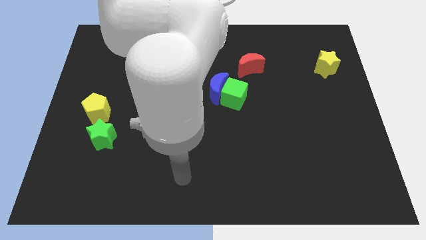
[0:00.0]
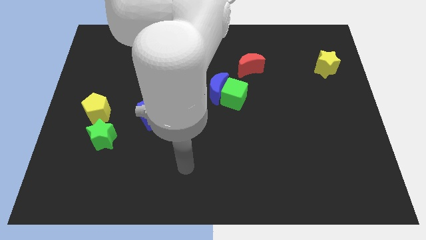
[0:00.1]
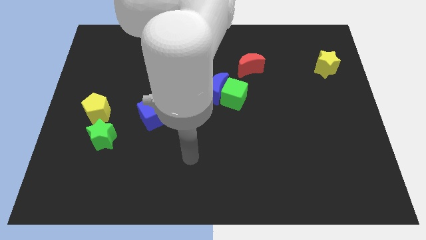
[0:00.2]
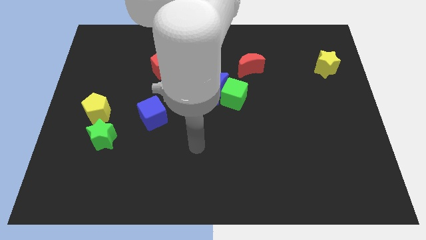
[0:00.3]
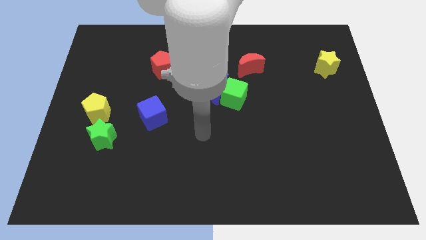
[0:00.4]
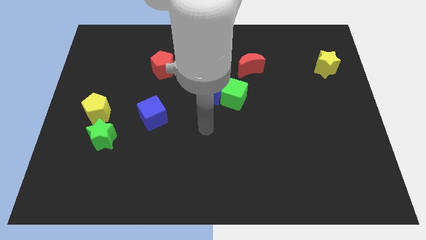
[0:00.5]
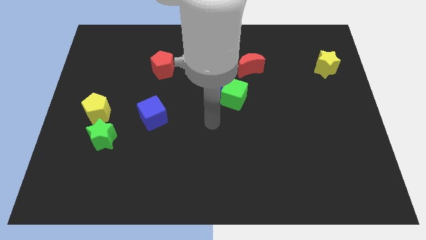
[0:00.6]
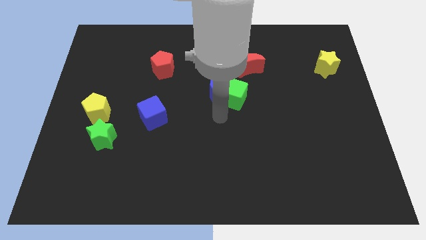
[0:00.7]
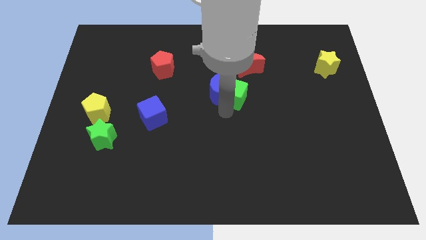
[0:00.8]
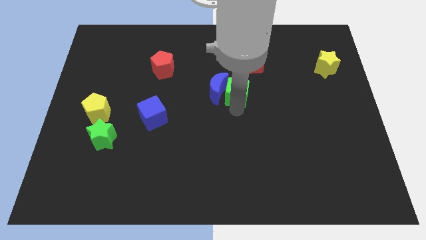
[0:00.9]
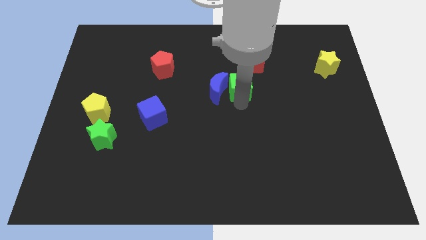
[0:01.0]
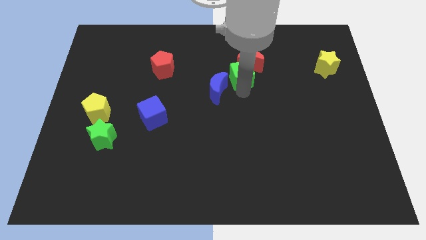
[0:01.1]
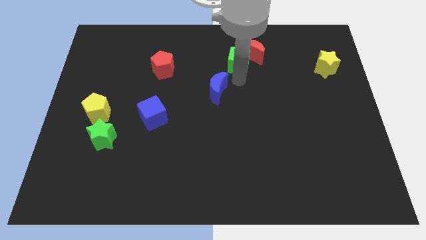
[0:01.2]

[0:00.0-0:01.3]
pull the blue moon apart from the green cube

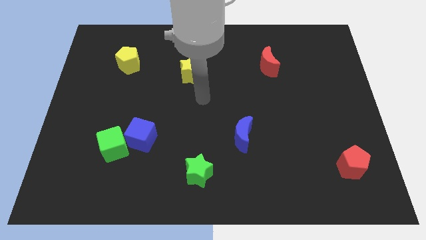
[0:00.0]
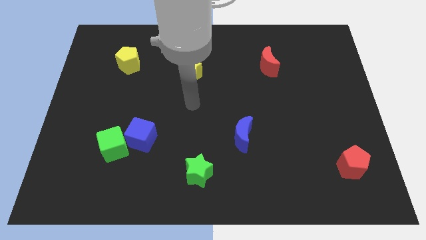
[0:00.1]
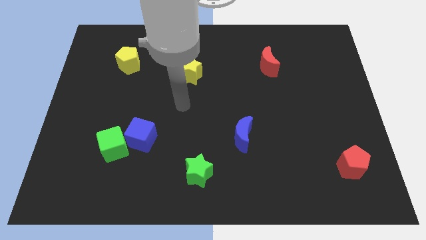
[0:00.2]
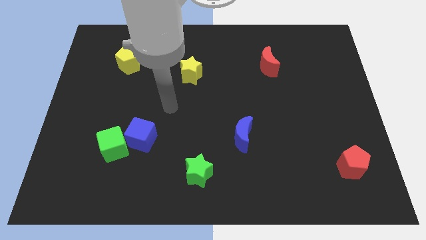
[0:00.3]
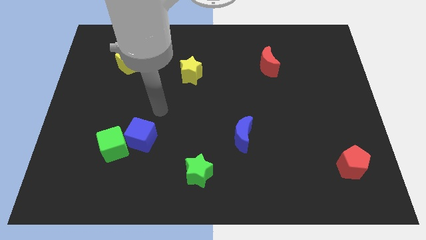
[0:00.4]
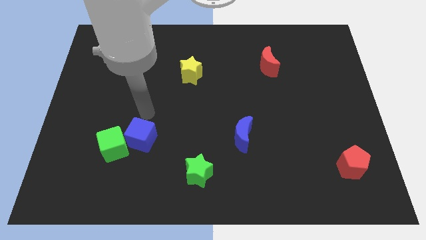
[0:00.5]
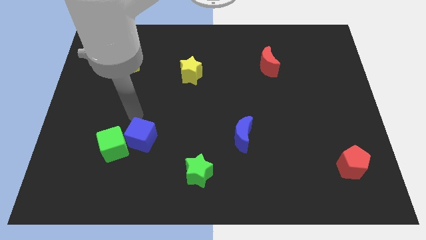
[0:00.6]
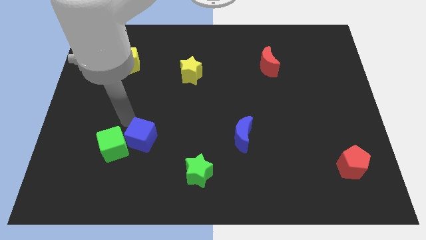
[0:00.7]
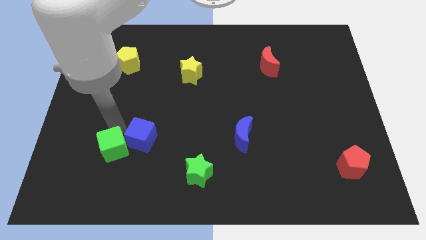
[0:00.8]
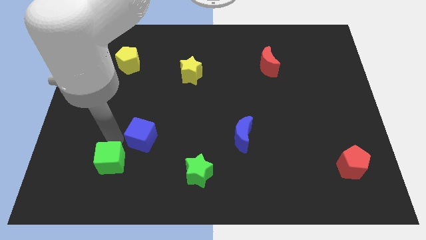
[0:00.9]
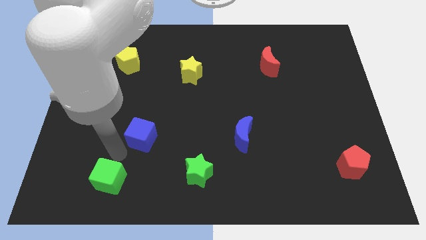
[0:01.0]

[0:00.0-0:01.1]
separate the blue cube from the green cube

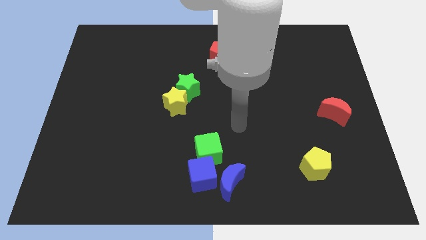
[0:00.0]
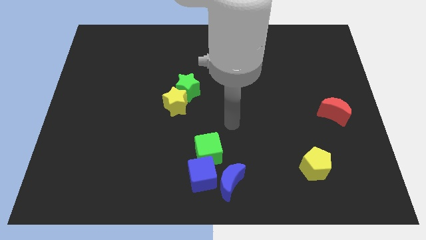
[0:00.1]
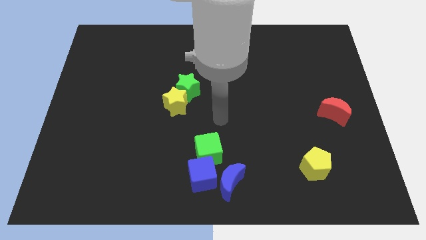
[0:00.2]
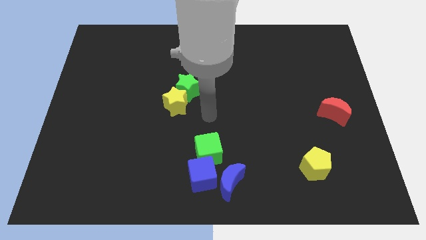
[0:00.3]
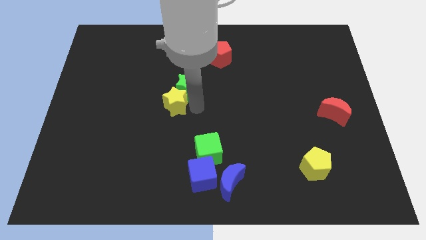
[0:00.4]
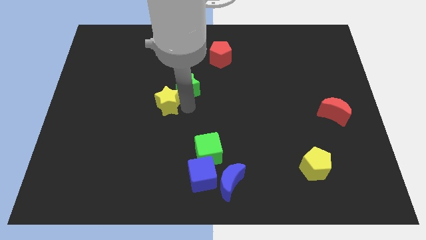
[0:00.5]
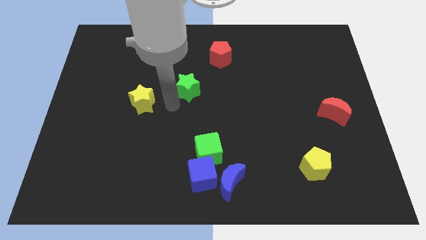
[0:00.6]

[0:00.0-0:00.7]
pull the green star apart from the yellow star

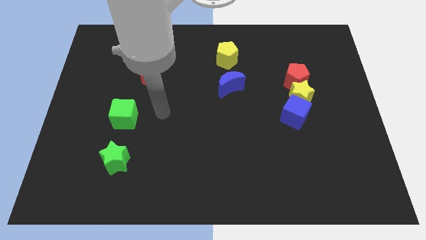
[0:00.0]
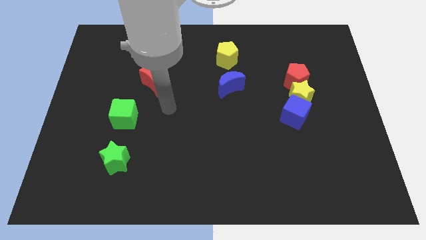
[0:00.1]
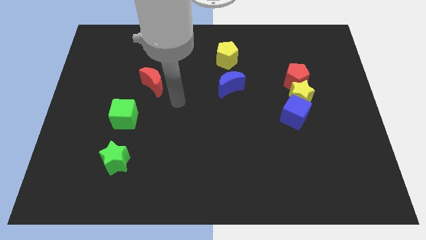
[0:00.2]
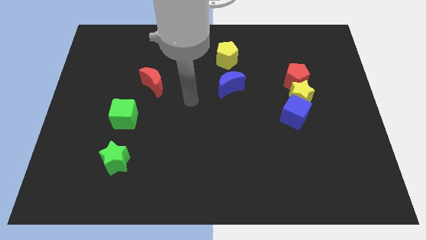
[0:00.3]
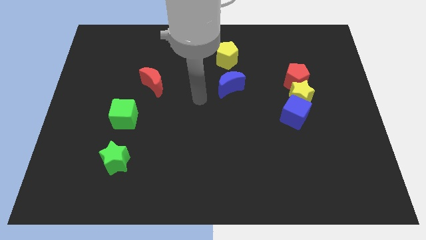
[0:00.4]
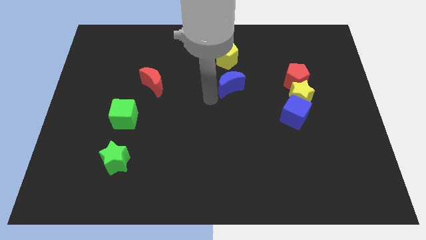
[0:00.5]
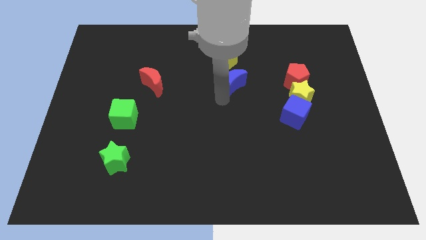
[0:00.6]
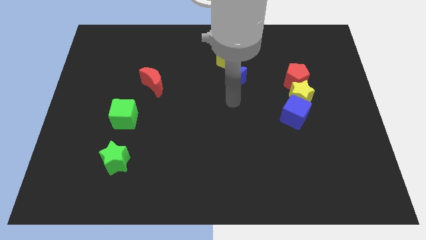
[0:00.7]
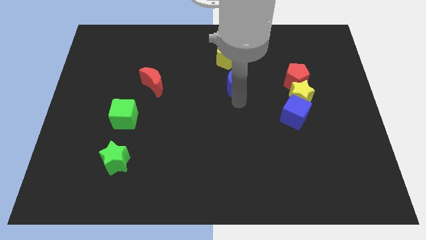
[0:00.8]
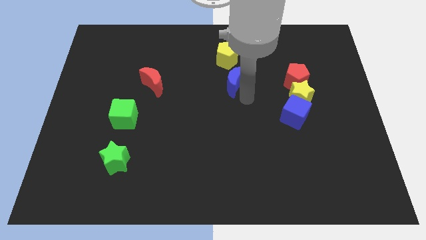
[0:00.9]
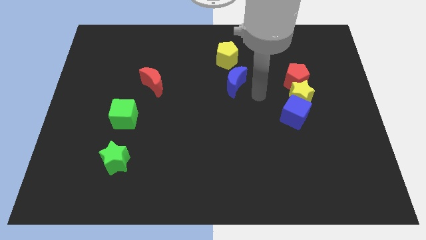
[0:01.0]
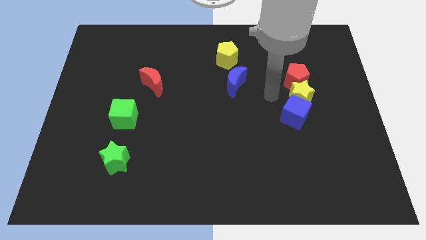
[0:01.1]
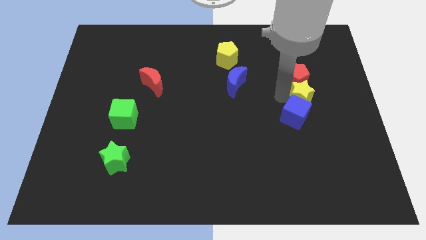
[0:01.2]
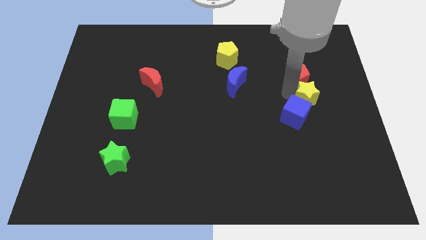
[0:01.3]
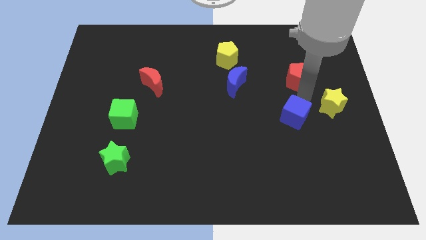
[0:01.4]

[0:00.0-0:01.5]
pull the blue cube apart from the yellow star

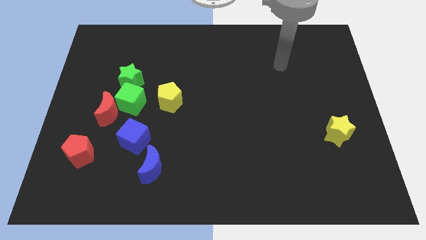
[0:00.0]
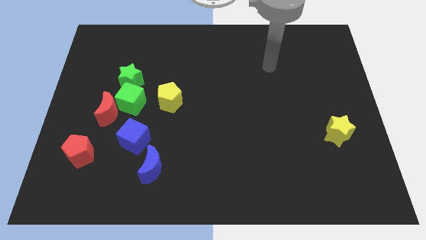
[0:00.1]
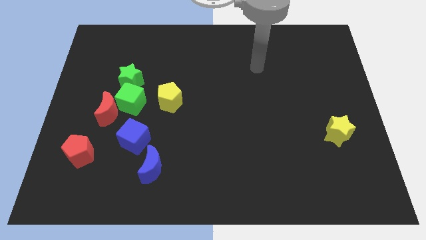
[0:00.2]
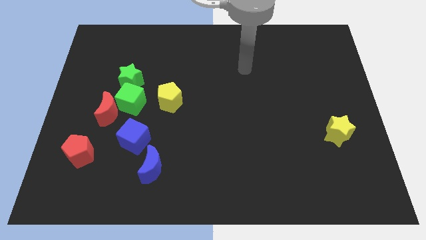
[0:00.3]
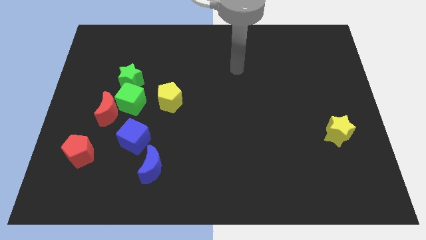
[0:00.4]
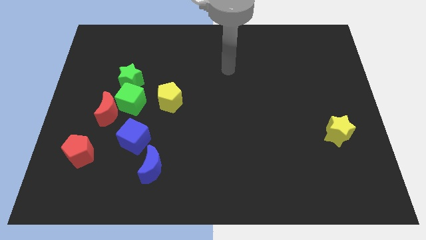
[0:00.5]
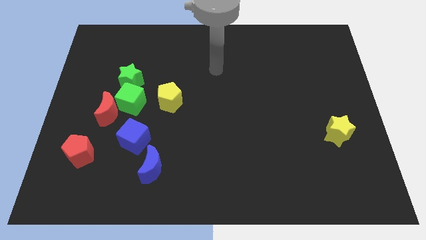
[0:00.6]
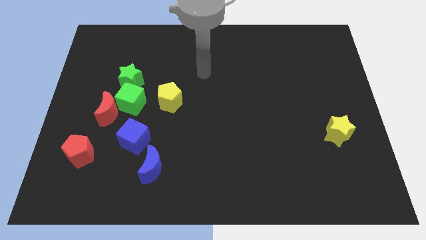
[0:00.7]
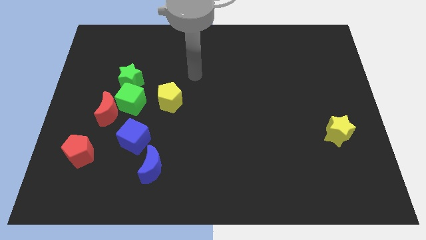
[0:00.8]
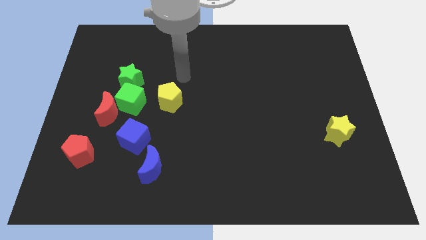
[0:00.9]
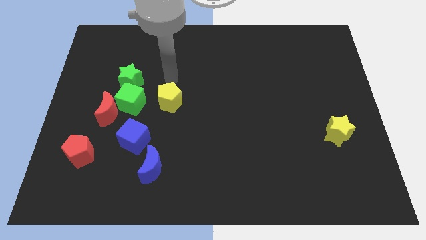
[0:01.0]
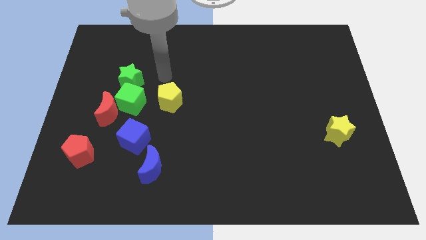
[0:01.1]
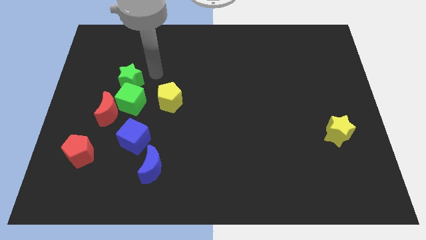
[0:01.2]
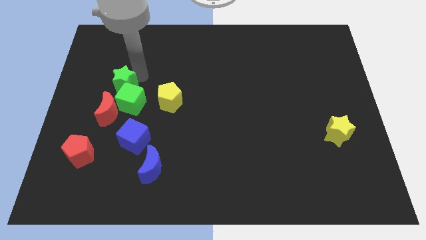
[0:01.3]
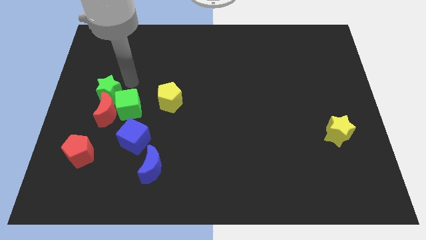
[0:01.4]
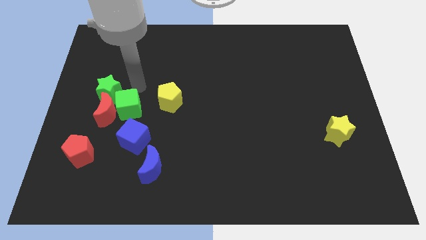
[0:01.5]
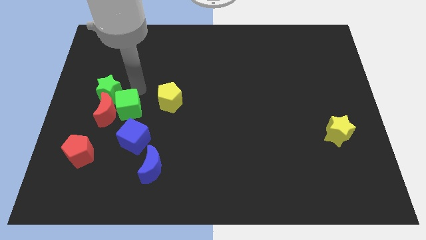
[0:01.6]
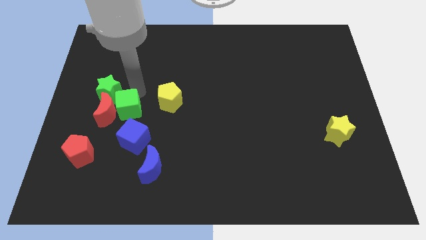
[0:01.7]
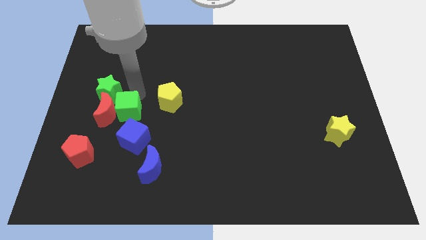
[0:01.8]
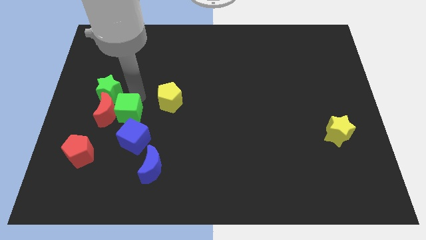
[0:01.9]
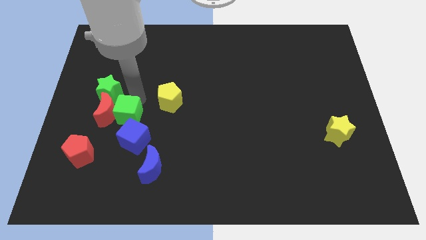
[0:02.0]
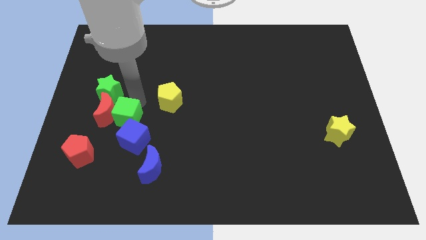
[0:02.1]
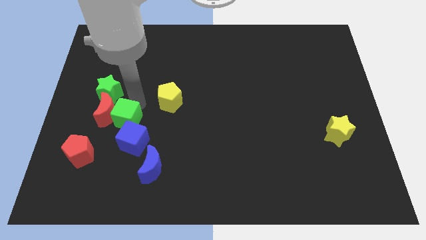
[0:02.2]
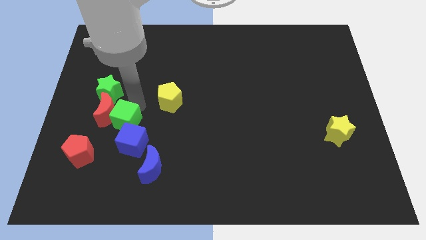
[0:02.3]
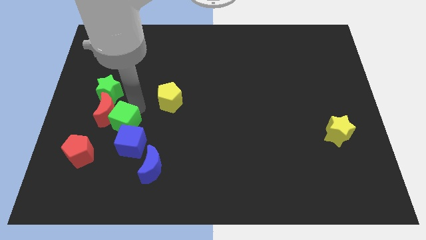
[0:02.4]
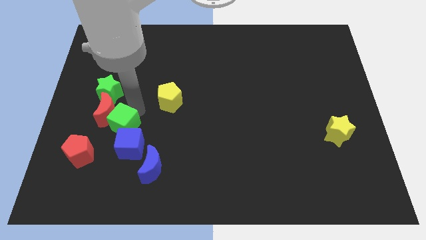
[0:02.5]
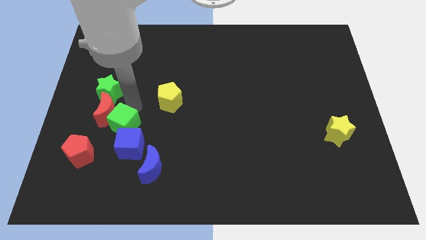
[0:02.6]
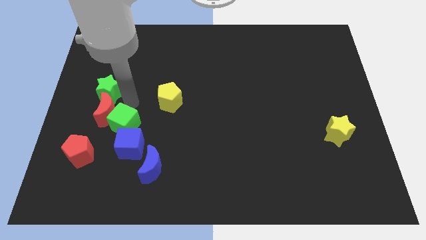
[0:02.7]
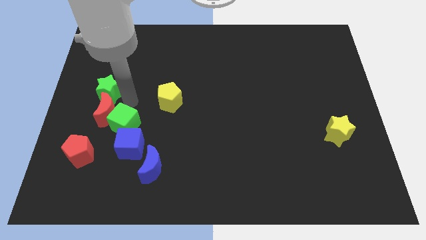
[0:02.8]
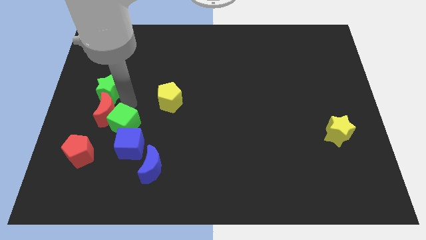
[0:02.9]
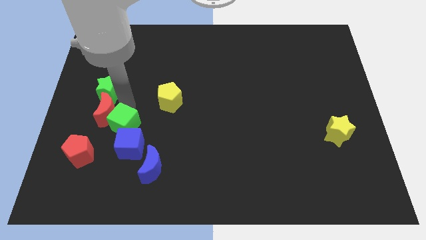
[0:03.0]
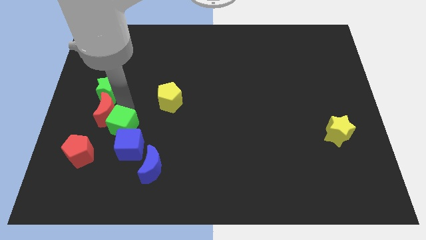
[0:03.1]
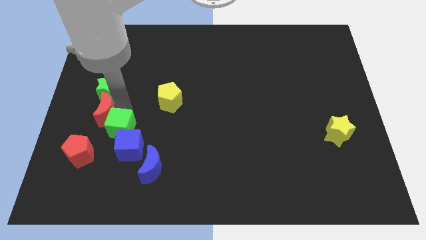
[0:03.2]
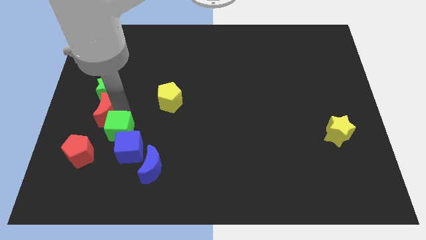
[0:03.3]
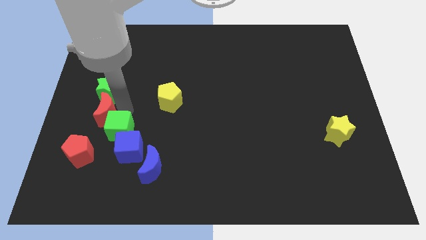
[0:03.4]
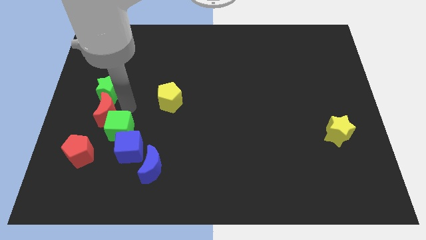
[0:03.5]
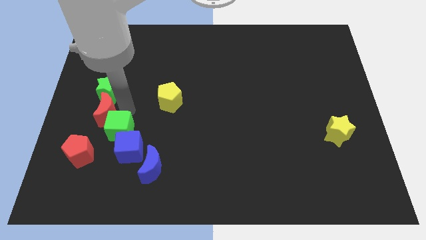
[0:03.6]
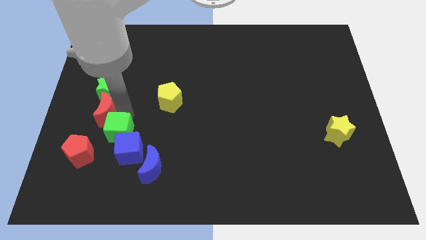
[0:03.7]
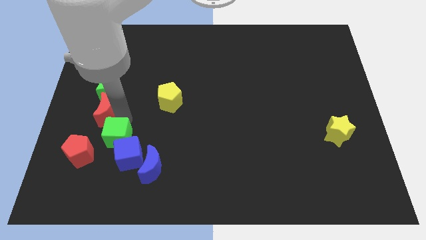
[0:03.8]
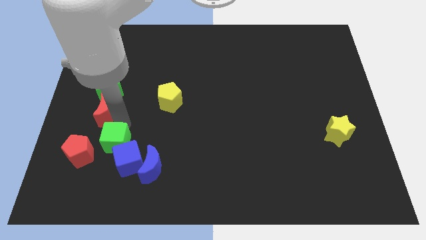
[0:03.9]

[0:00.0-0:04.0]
separate the green cube from the red moon, green star, and yellow pentagon

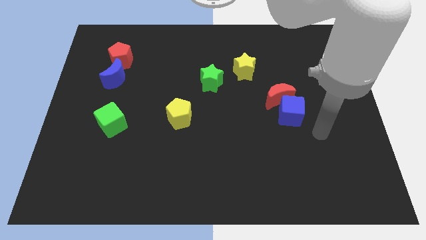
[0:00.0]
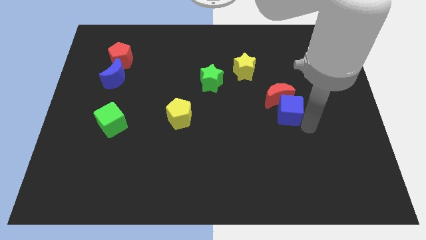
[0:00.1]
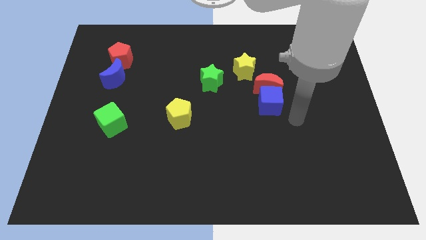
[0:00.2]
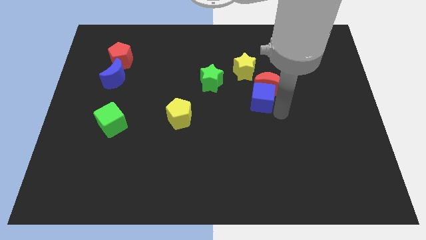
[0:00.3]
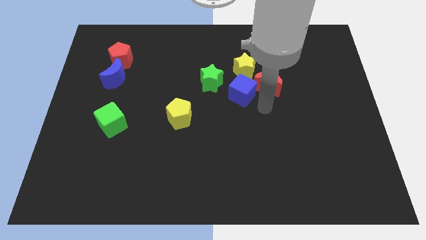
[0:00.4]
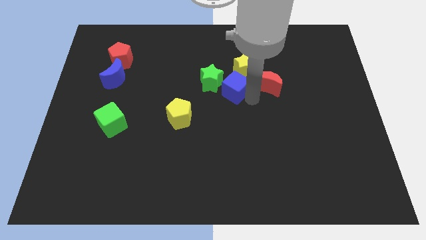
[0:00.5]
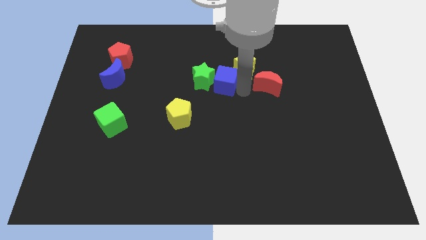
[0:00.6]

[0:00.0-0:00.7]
separate the red moon from the blue cube
